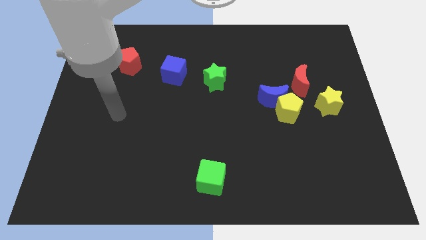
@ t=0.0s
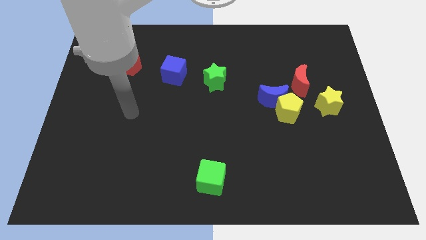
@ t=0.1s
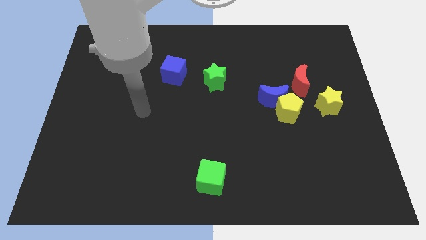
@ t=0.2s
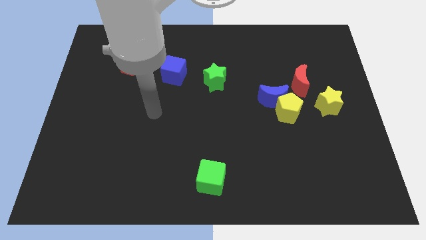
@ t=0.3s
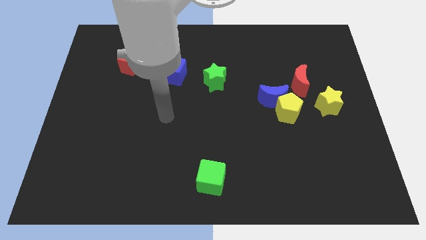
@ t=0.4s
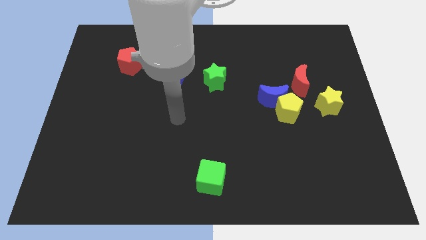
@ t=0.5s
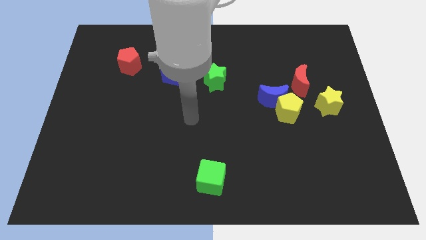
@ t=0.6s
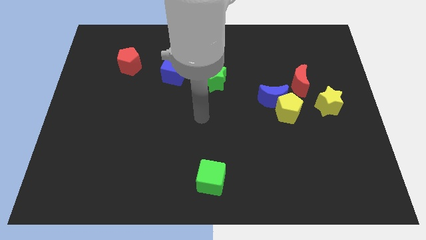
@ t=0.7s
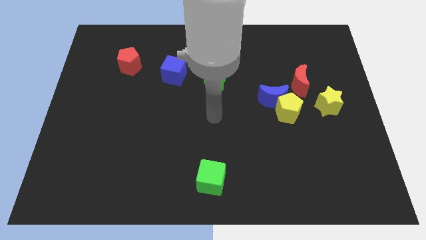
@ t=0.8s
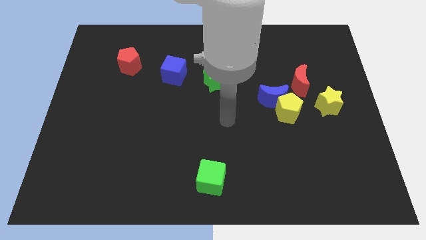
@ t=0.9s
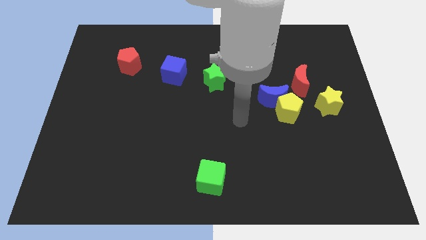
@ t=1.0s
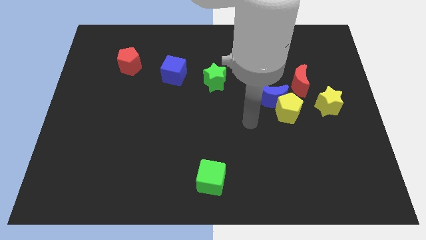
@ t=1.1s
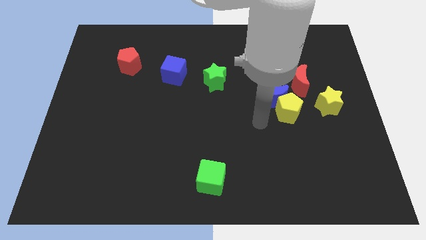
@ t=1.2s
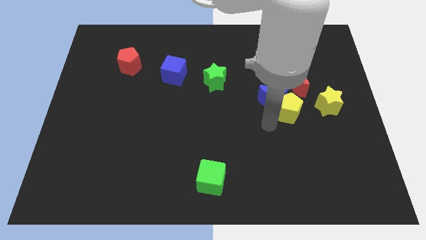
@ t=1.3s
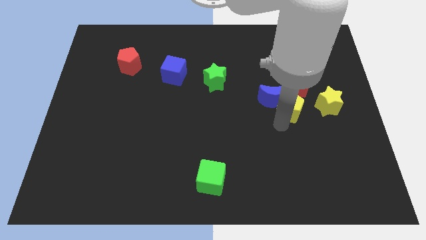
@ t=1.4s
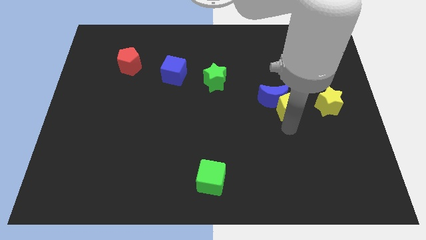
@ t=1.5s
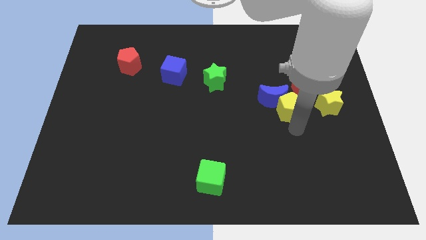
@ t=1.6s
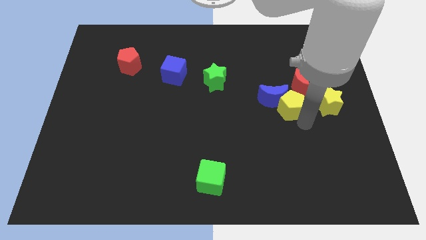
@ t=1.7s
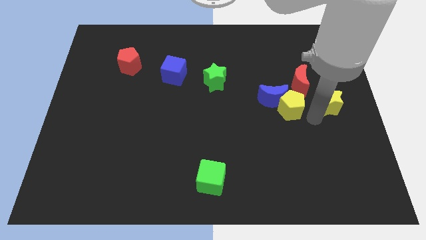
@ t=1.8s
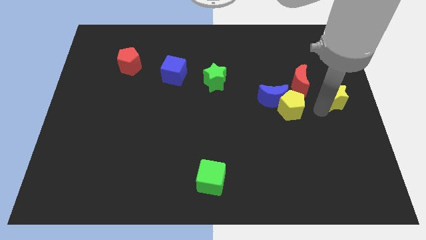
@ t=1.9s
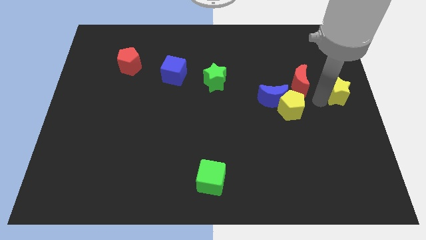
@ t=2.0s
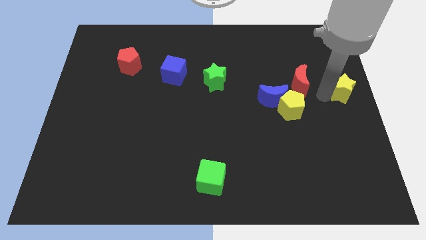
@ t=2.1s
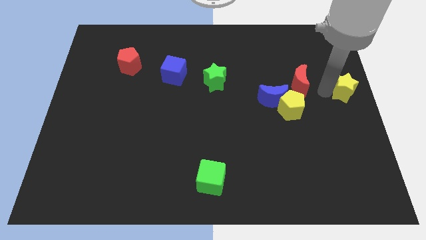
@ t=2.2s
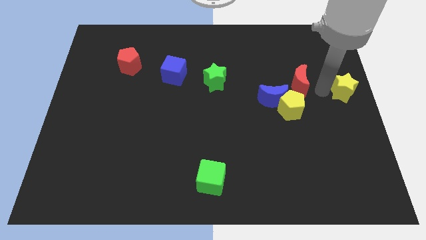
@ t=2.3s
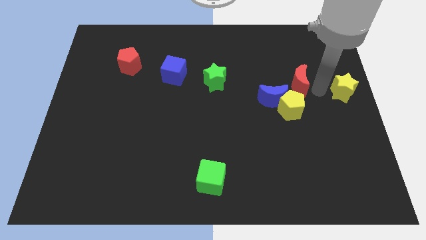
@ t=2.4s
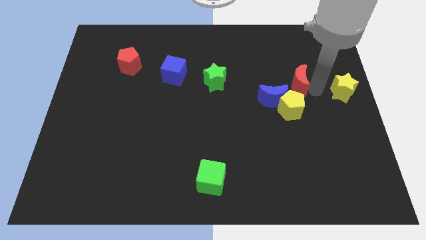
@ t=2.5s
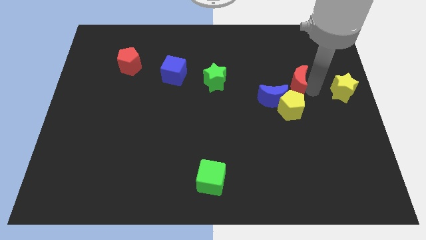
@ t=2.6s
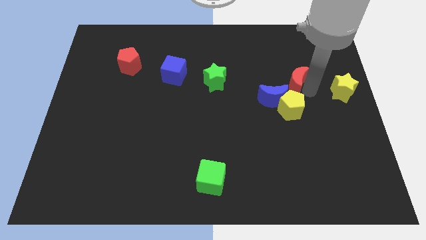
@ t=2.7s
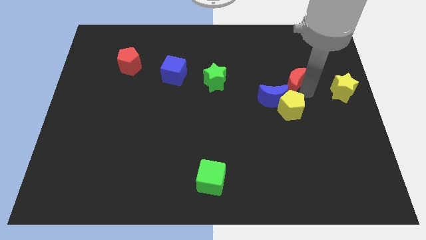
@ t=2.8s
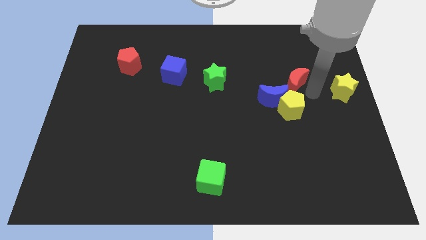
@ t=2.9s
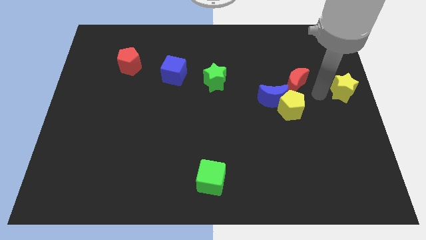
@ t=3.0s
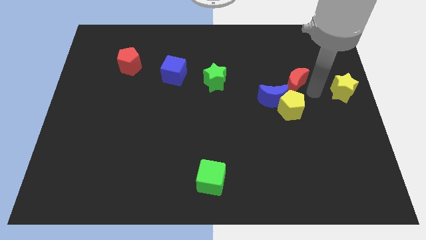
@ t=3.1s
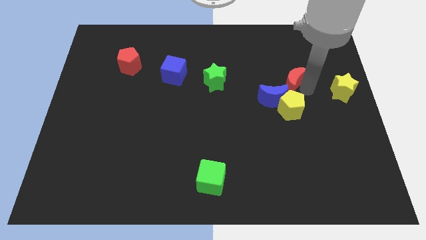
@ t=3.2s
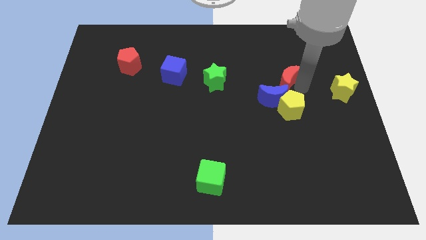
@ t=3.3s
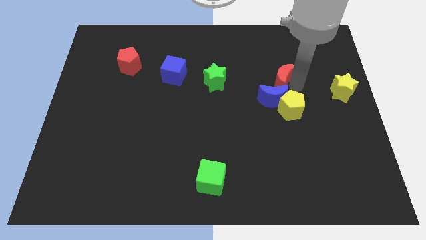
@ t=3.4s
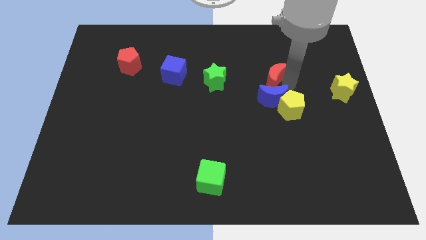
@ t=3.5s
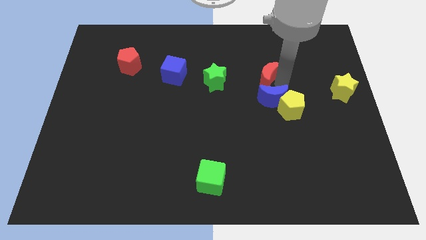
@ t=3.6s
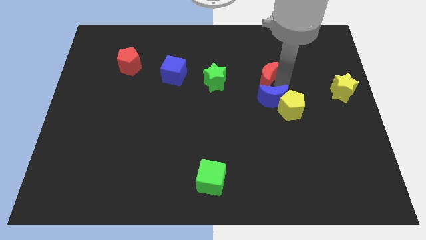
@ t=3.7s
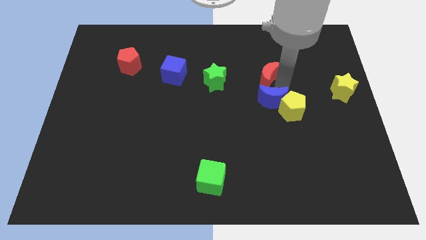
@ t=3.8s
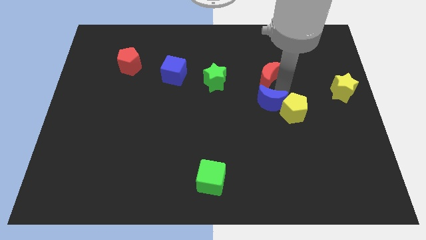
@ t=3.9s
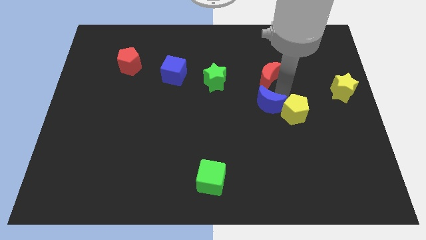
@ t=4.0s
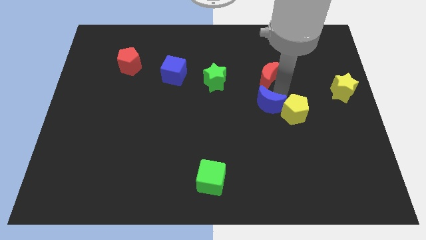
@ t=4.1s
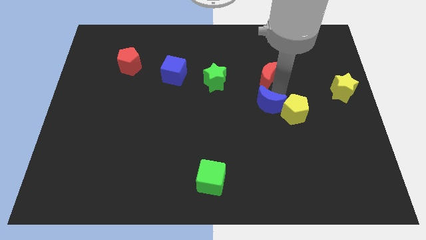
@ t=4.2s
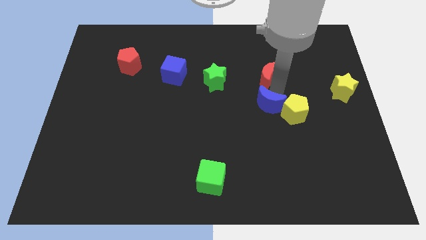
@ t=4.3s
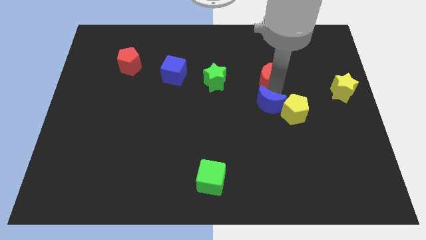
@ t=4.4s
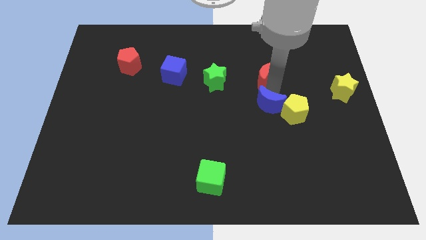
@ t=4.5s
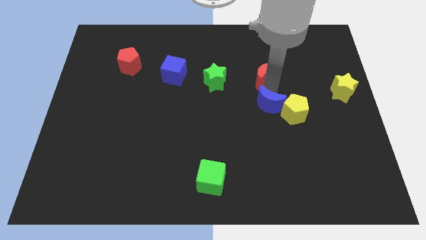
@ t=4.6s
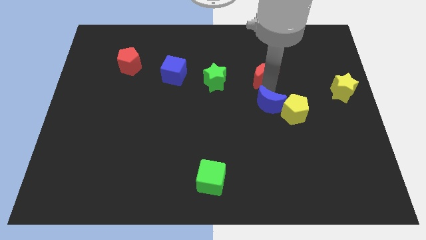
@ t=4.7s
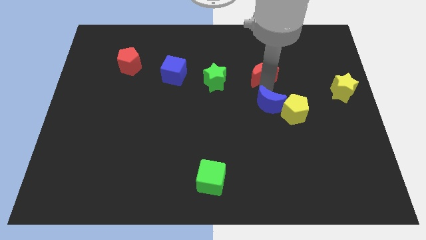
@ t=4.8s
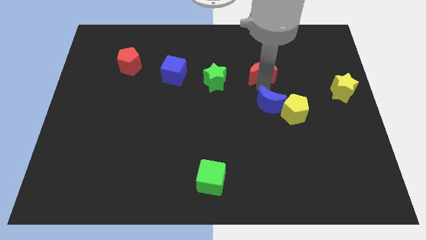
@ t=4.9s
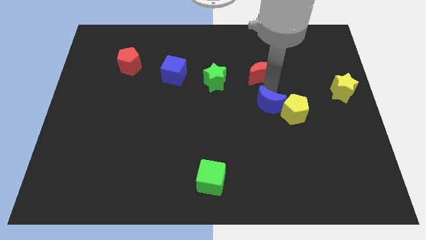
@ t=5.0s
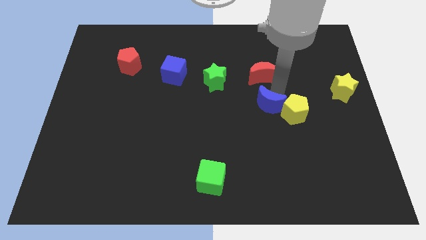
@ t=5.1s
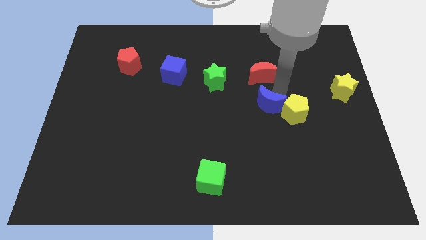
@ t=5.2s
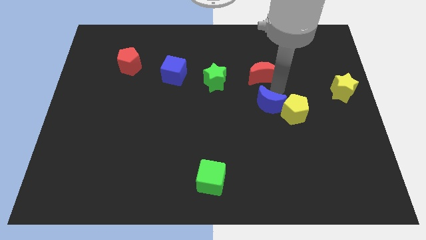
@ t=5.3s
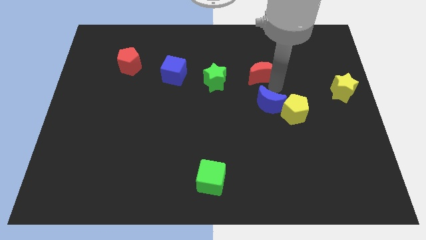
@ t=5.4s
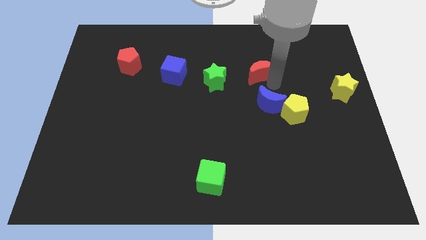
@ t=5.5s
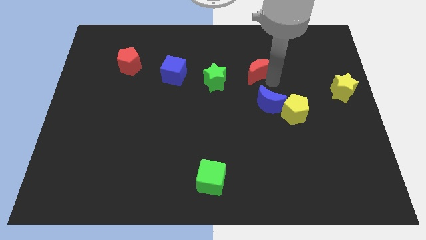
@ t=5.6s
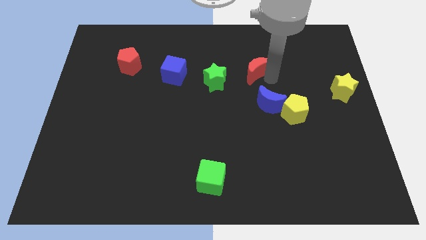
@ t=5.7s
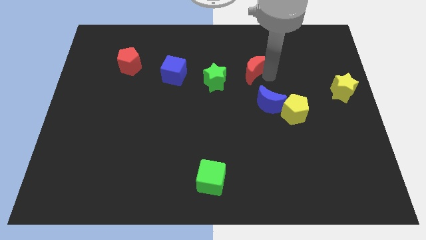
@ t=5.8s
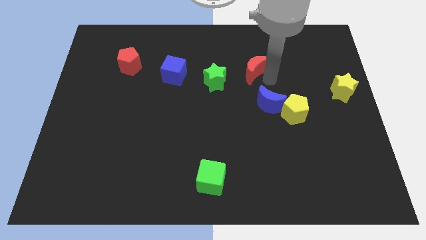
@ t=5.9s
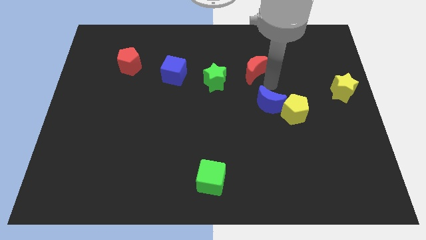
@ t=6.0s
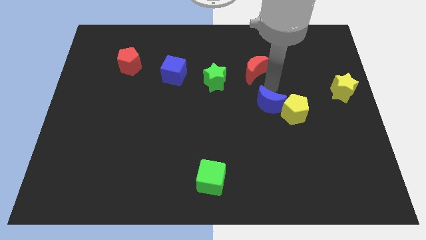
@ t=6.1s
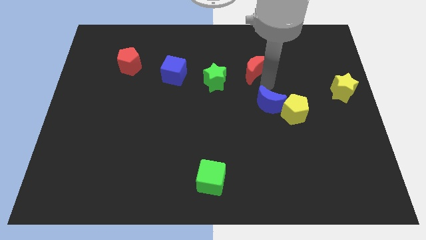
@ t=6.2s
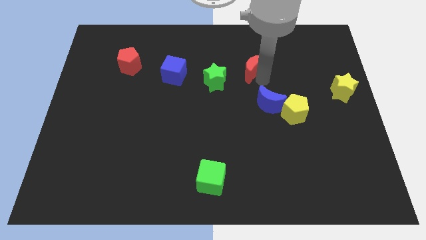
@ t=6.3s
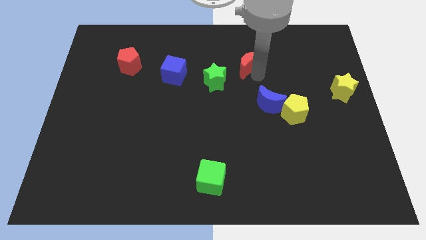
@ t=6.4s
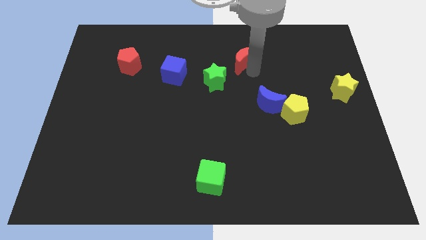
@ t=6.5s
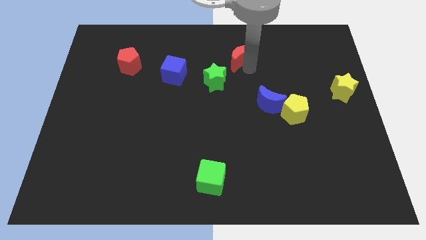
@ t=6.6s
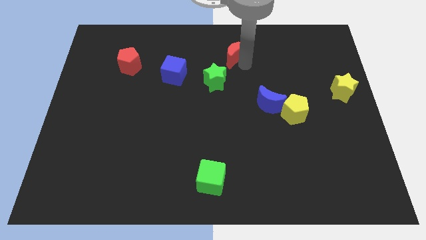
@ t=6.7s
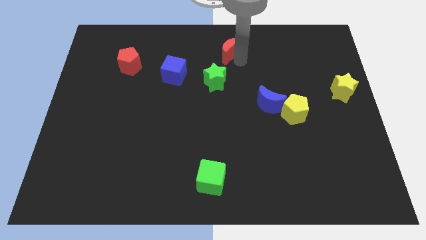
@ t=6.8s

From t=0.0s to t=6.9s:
push the red moon to the top side
